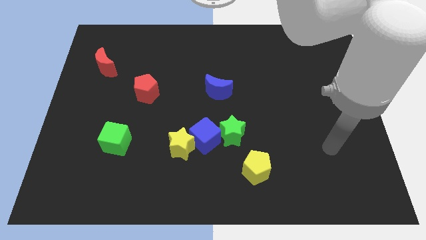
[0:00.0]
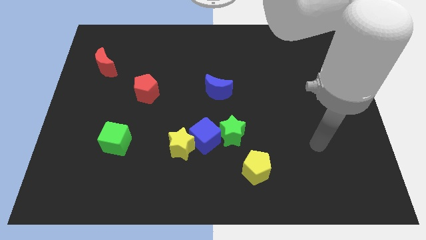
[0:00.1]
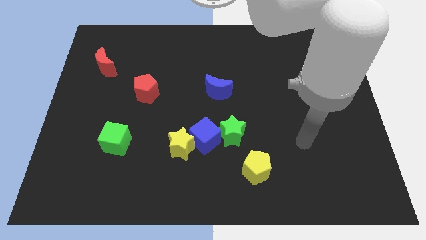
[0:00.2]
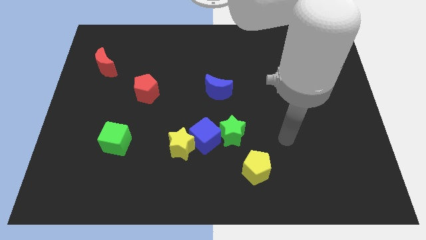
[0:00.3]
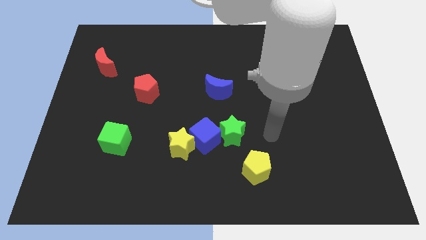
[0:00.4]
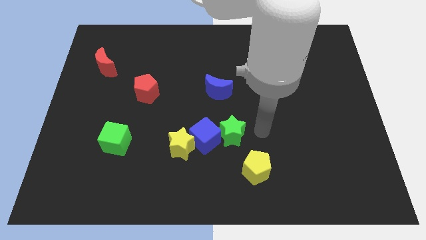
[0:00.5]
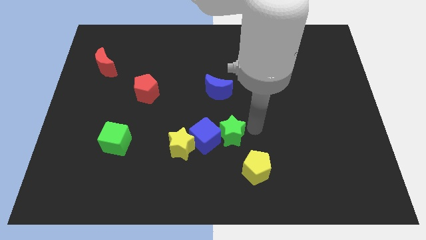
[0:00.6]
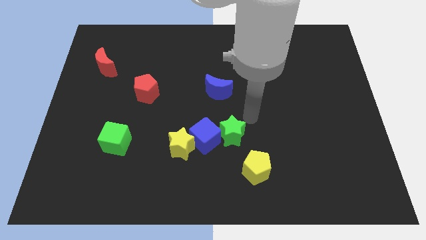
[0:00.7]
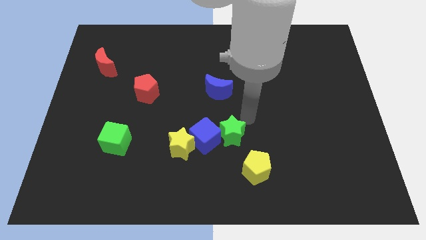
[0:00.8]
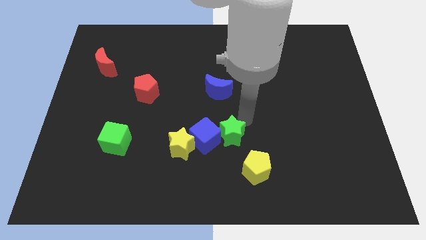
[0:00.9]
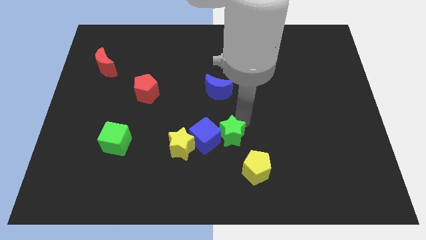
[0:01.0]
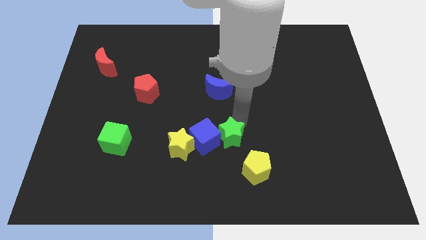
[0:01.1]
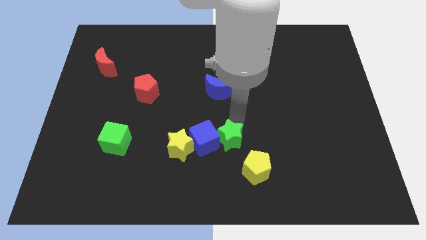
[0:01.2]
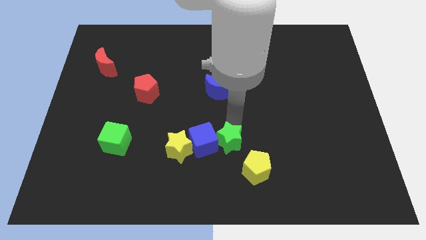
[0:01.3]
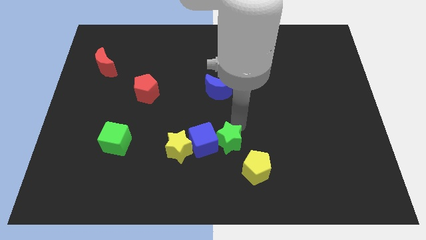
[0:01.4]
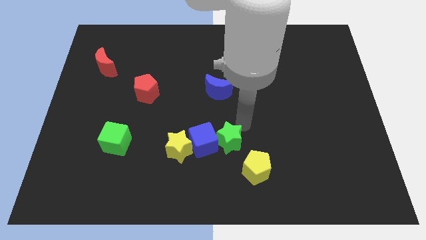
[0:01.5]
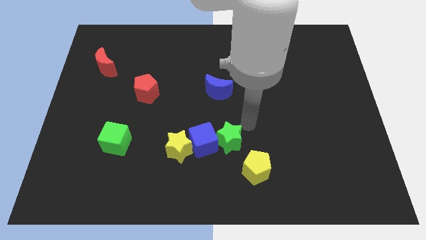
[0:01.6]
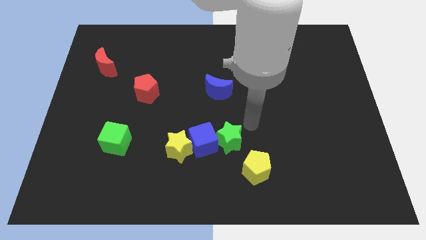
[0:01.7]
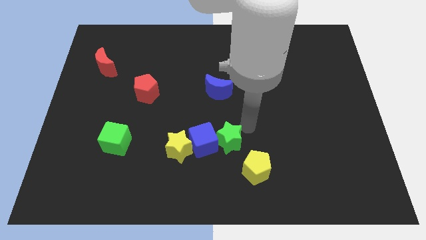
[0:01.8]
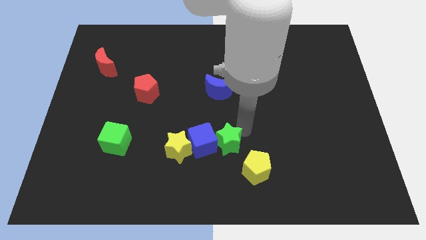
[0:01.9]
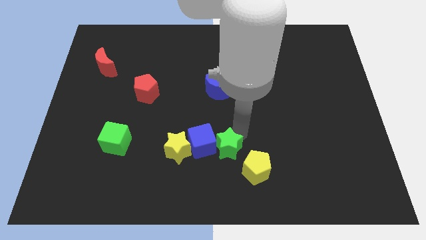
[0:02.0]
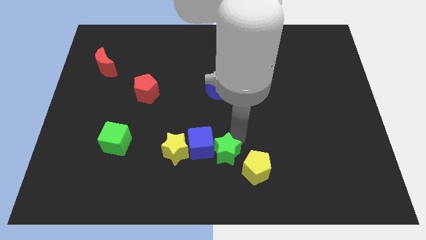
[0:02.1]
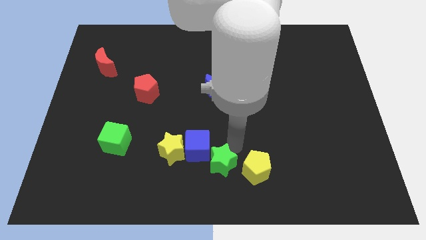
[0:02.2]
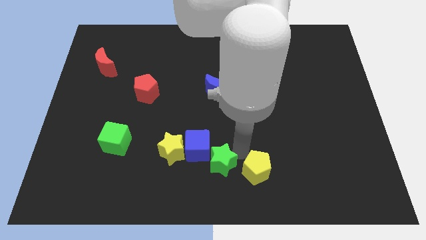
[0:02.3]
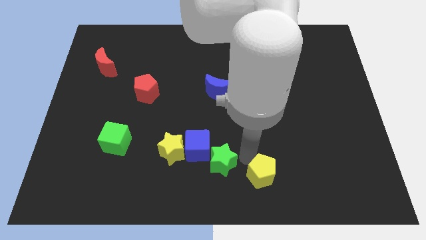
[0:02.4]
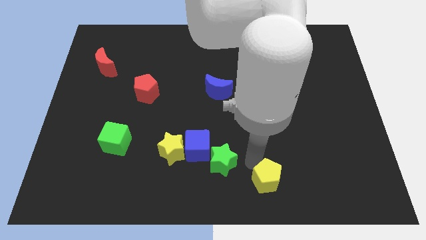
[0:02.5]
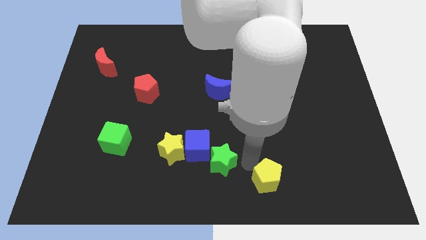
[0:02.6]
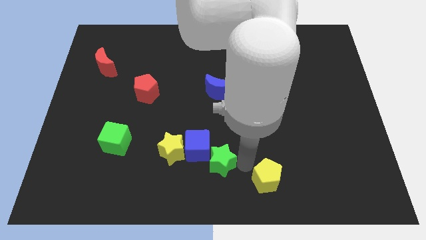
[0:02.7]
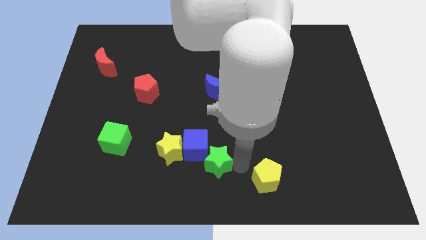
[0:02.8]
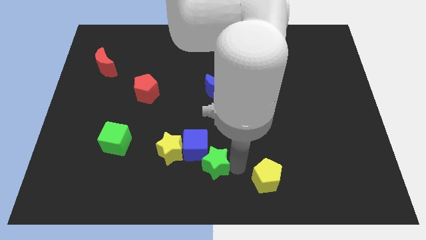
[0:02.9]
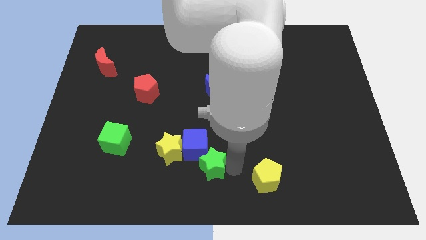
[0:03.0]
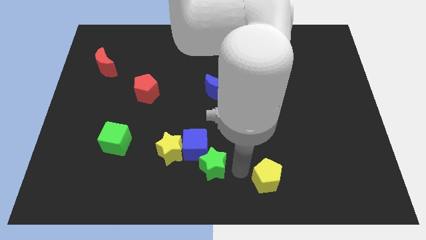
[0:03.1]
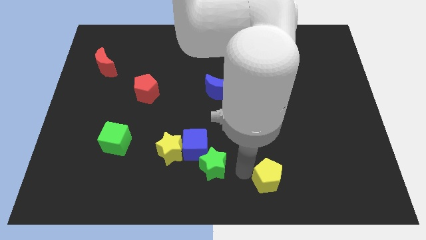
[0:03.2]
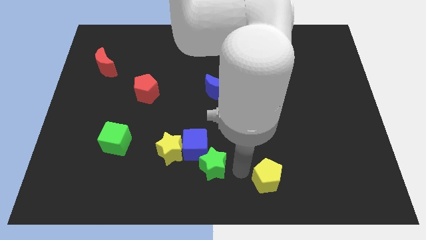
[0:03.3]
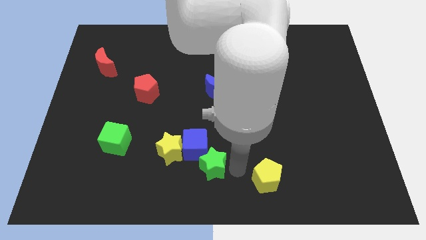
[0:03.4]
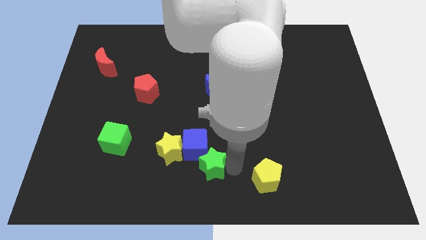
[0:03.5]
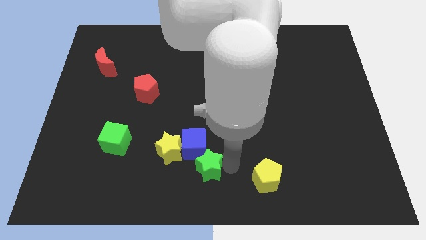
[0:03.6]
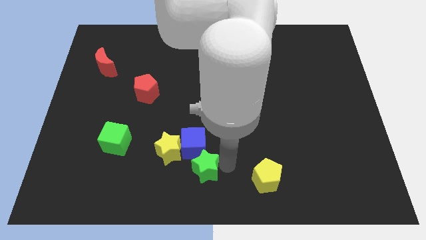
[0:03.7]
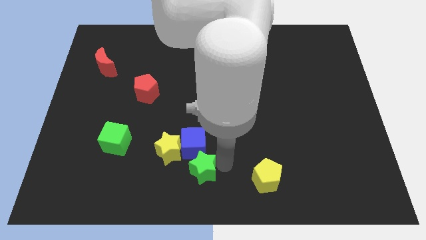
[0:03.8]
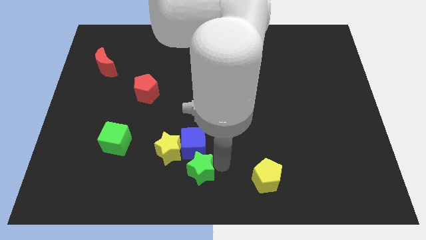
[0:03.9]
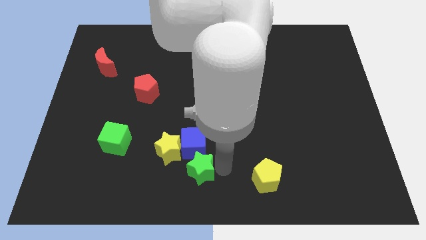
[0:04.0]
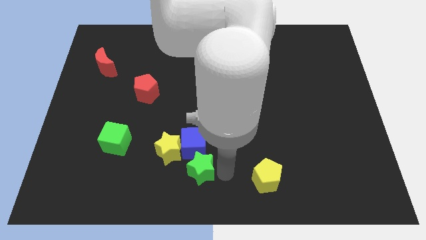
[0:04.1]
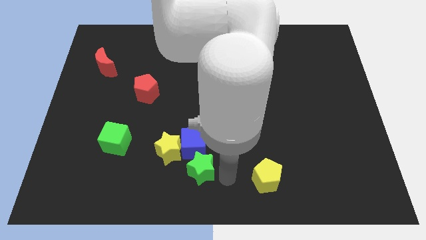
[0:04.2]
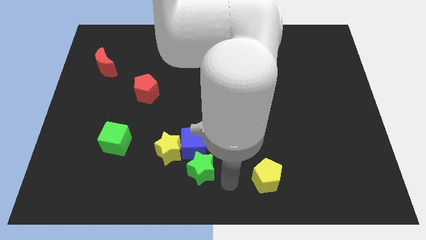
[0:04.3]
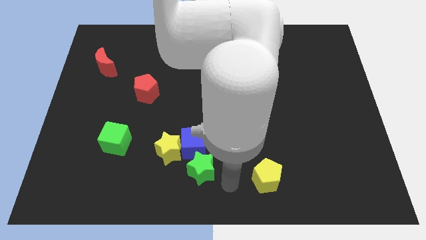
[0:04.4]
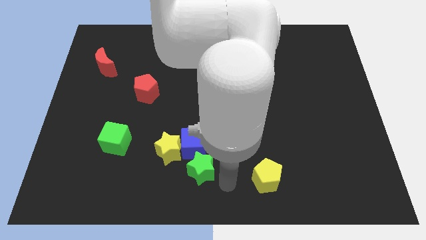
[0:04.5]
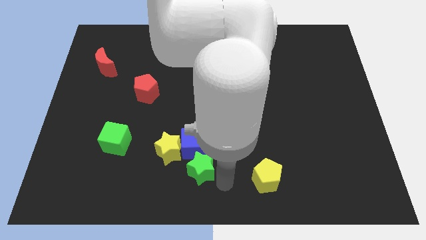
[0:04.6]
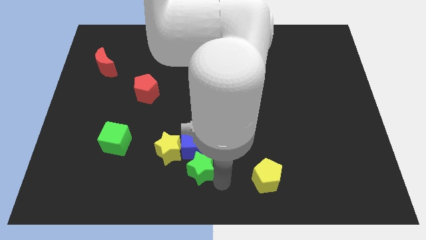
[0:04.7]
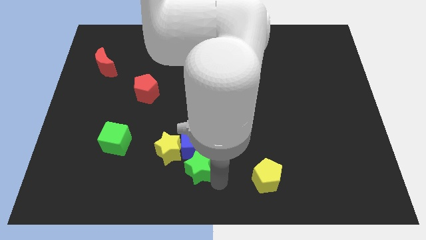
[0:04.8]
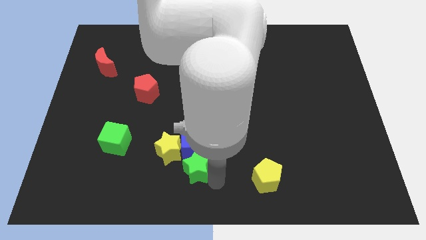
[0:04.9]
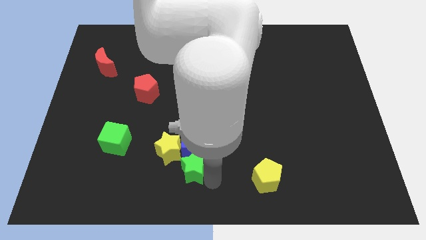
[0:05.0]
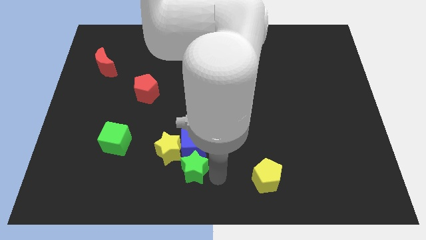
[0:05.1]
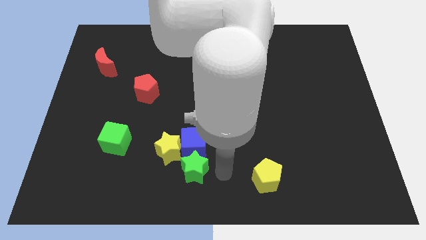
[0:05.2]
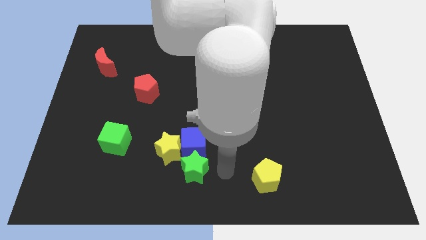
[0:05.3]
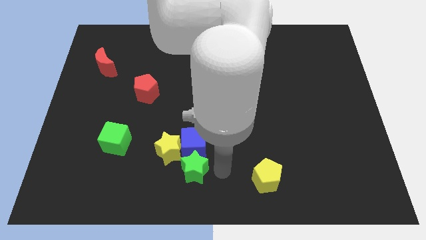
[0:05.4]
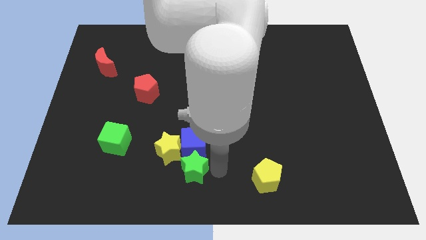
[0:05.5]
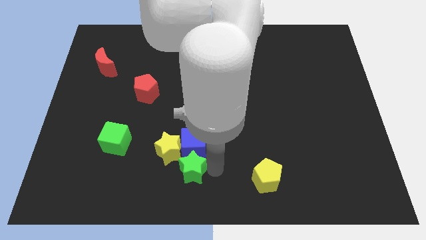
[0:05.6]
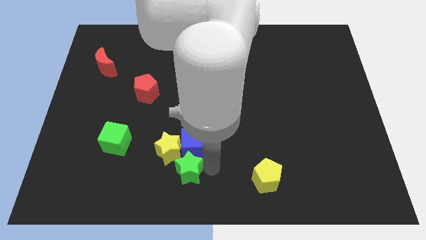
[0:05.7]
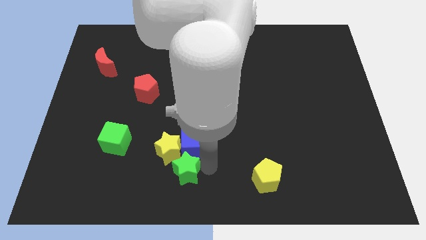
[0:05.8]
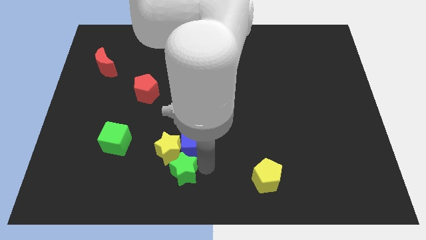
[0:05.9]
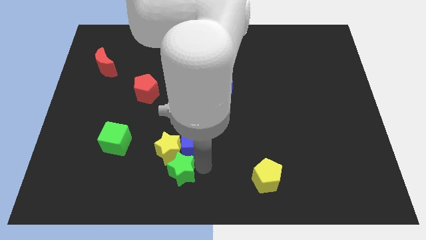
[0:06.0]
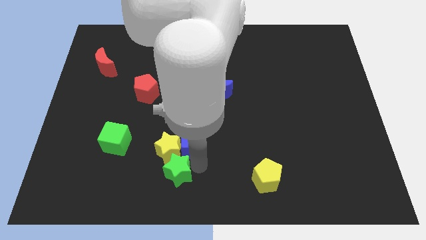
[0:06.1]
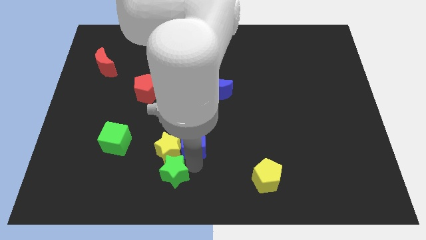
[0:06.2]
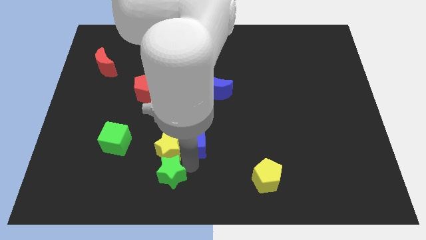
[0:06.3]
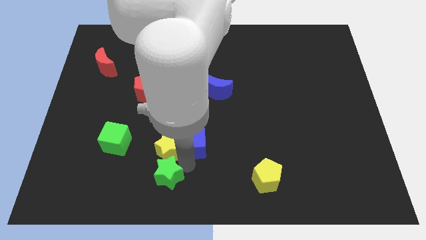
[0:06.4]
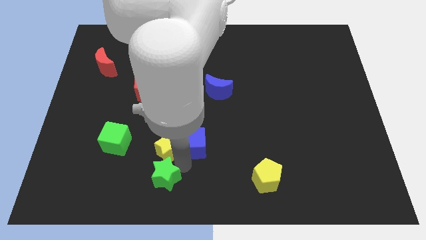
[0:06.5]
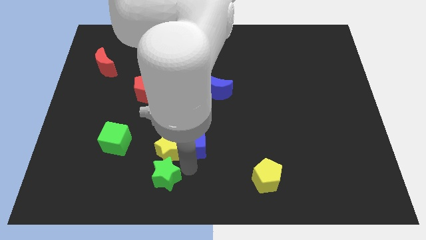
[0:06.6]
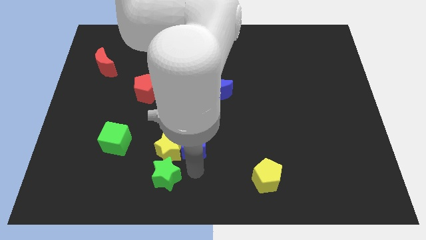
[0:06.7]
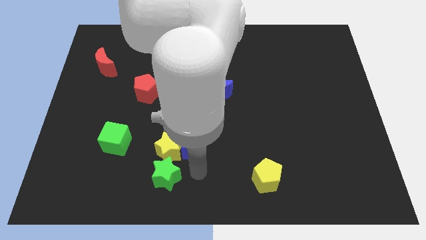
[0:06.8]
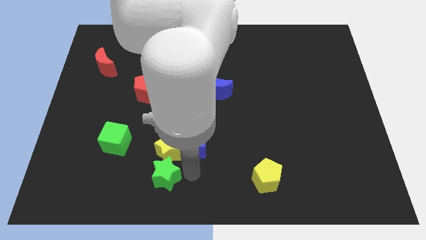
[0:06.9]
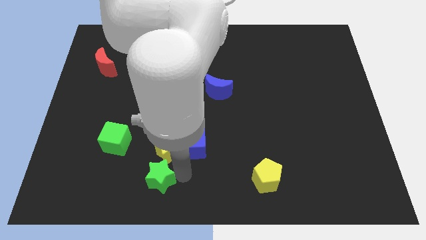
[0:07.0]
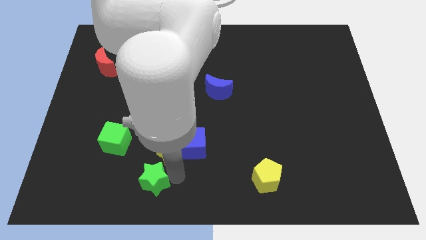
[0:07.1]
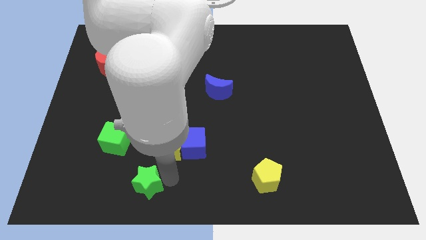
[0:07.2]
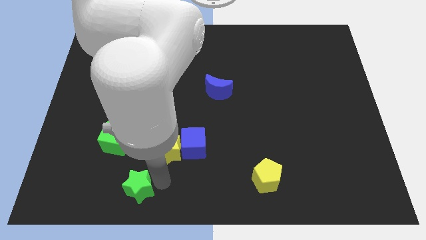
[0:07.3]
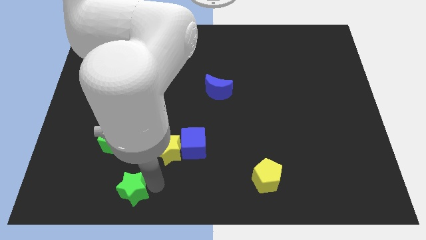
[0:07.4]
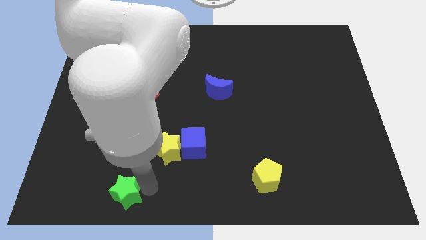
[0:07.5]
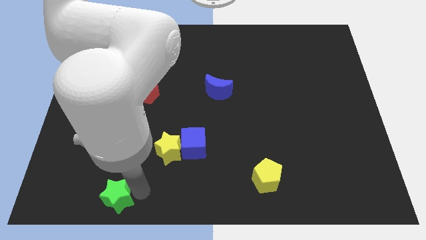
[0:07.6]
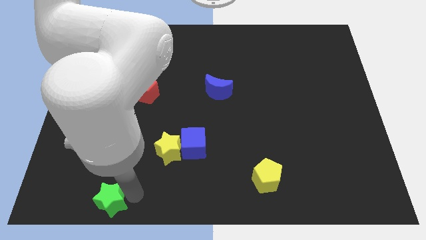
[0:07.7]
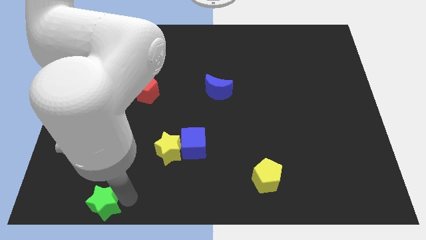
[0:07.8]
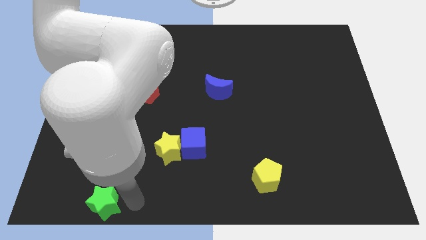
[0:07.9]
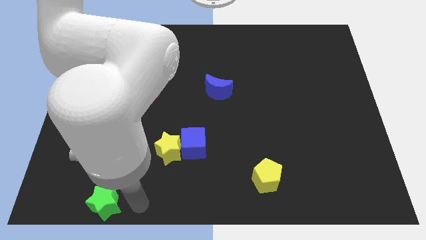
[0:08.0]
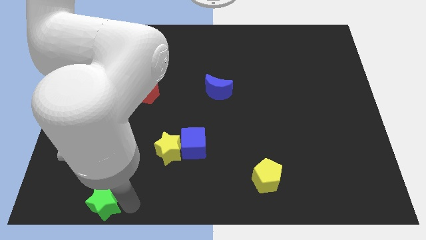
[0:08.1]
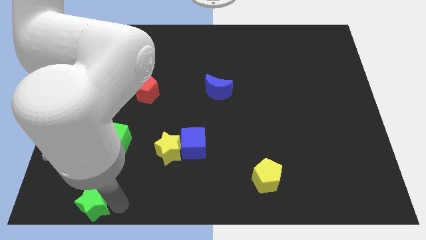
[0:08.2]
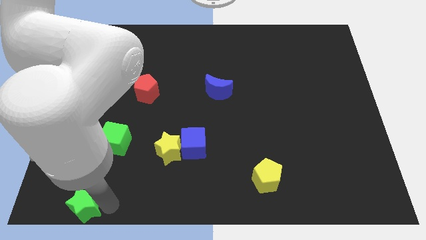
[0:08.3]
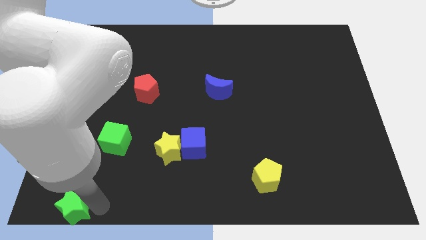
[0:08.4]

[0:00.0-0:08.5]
push the green star to the bottom left
